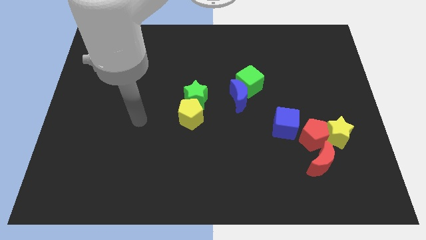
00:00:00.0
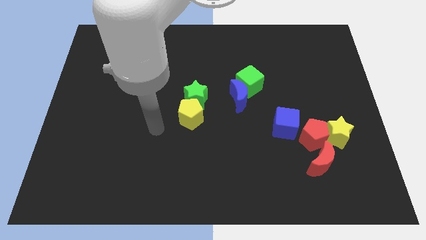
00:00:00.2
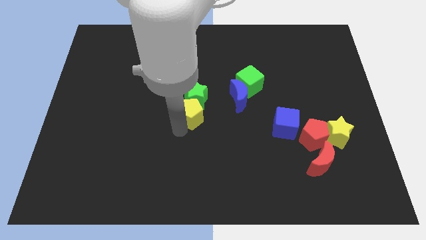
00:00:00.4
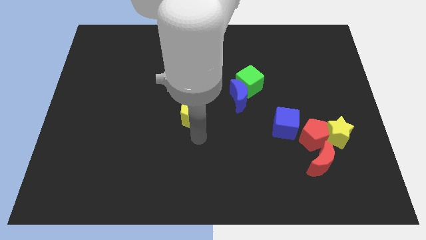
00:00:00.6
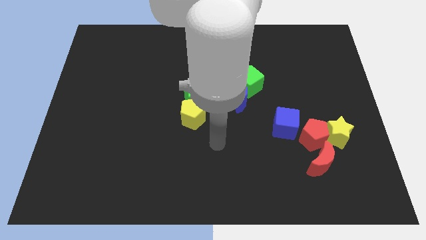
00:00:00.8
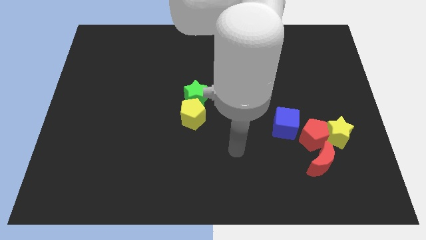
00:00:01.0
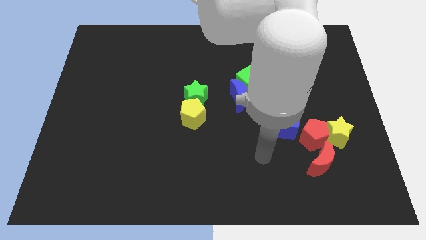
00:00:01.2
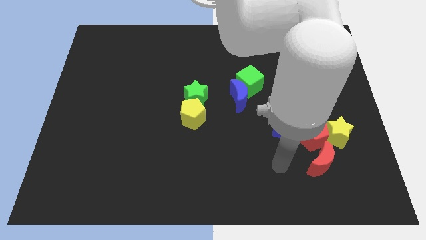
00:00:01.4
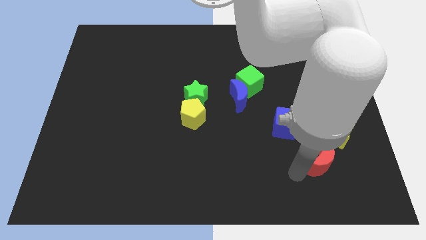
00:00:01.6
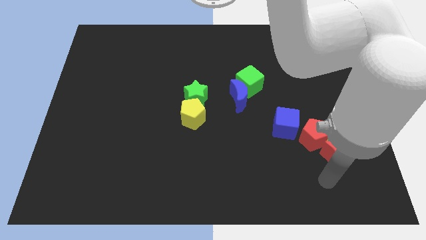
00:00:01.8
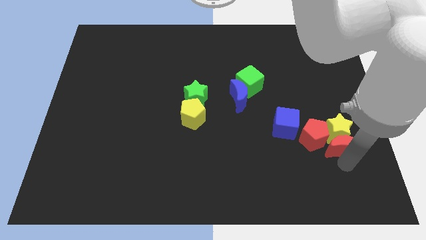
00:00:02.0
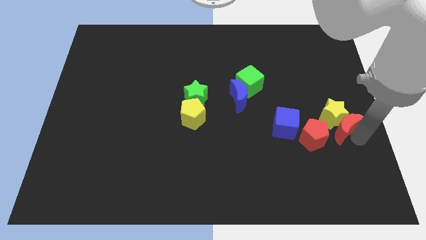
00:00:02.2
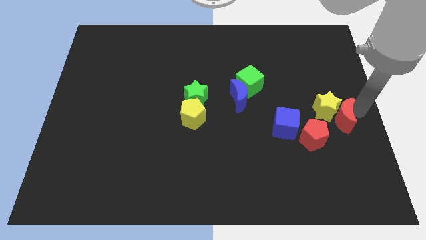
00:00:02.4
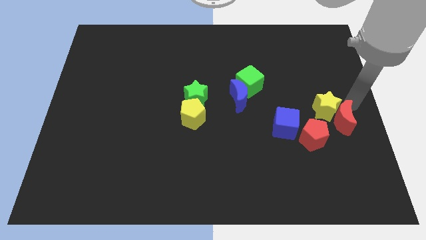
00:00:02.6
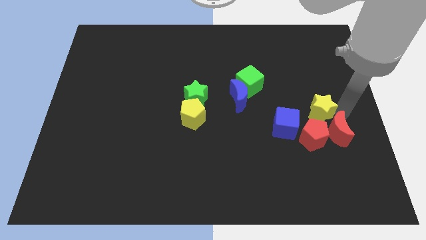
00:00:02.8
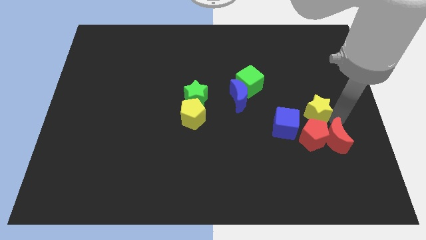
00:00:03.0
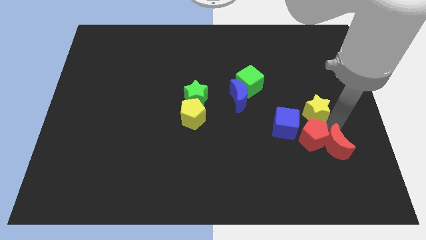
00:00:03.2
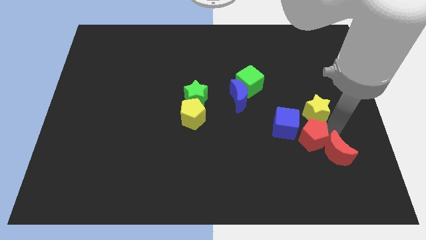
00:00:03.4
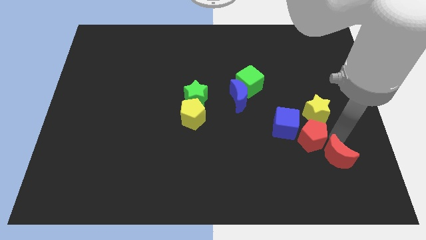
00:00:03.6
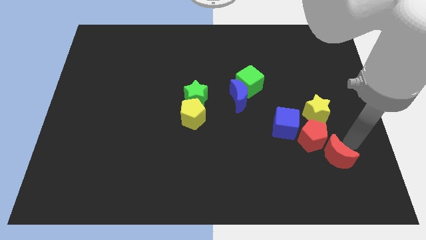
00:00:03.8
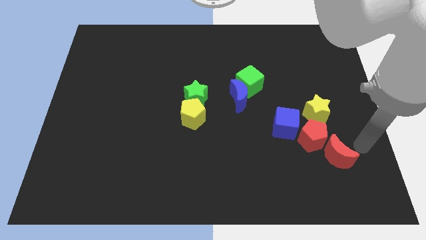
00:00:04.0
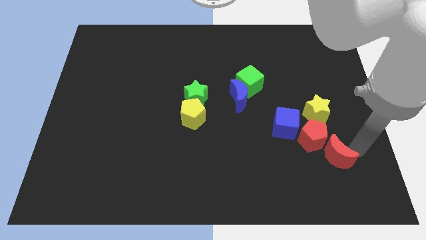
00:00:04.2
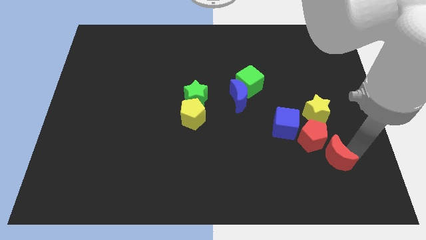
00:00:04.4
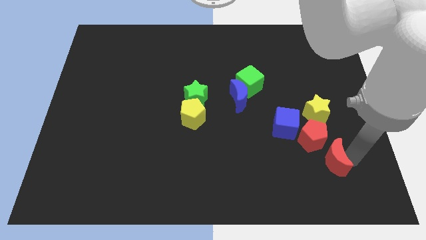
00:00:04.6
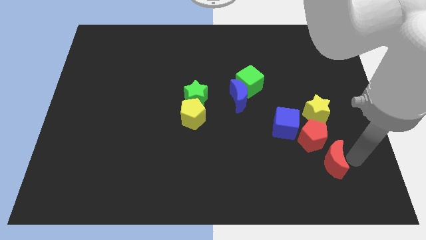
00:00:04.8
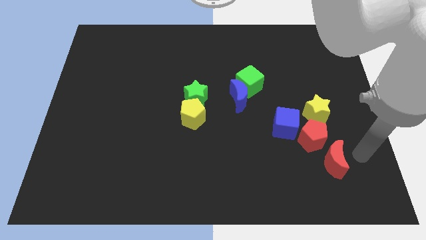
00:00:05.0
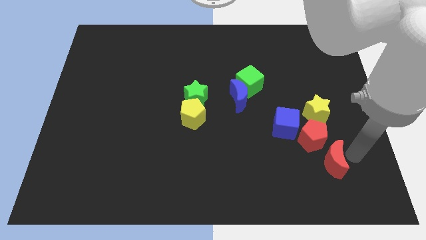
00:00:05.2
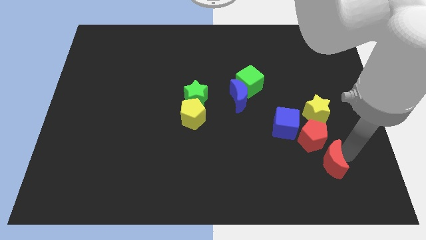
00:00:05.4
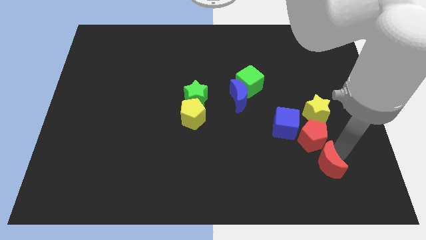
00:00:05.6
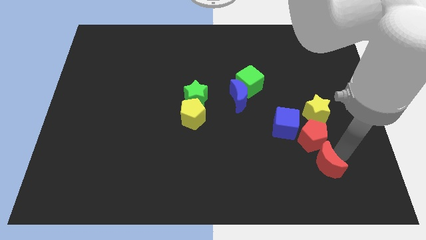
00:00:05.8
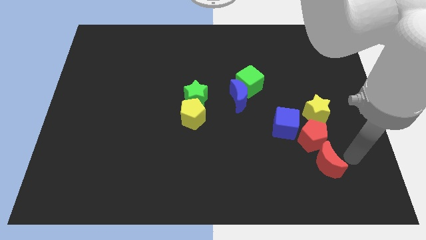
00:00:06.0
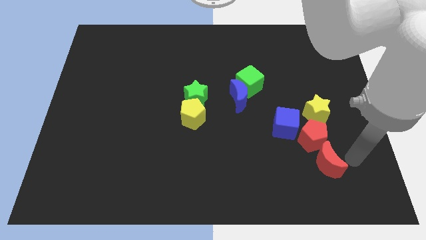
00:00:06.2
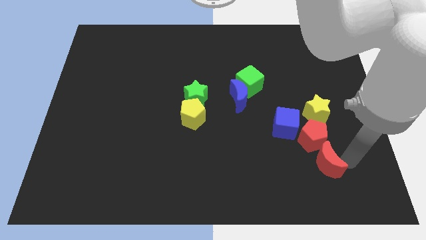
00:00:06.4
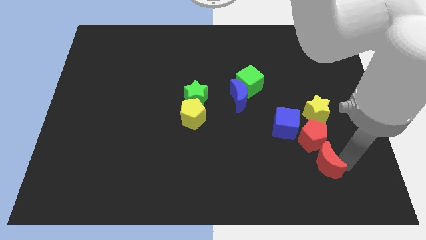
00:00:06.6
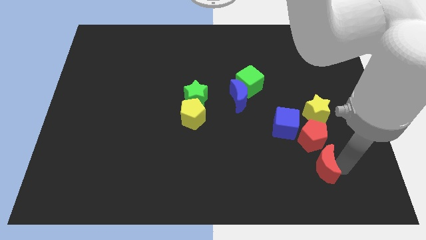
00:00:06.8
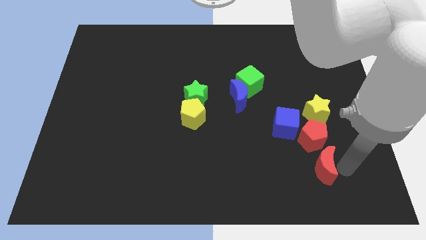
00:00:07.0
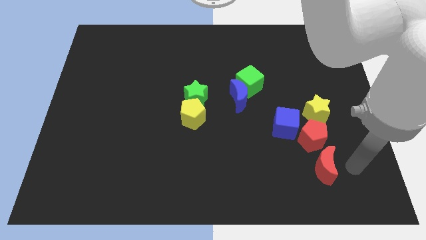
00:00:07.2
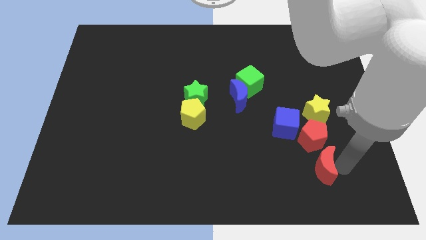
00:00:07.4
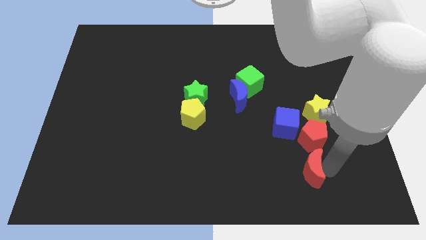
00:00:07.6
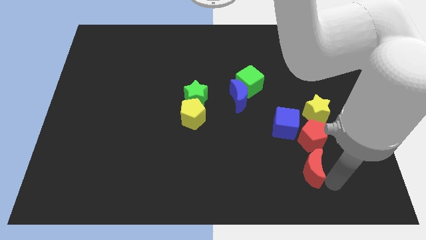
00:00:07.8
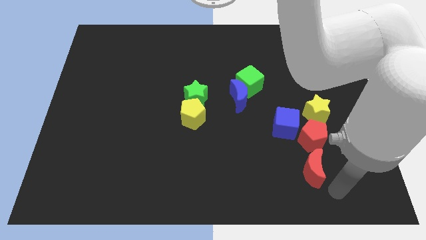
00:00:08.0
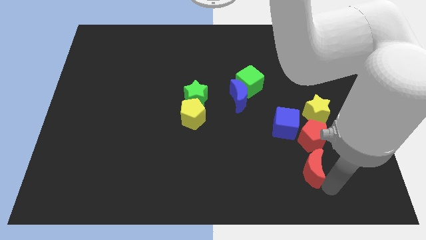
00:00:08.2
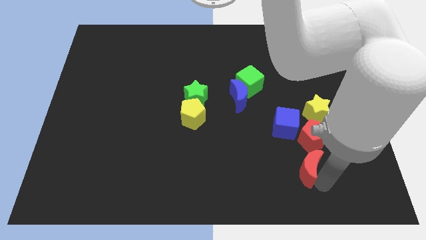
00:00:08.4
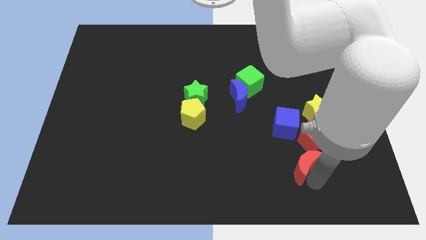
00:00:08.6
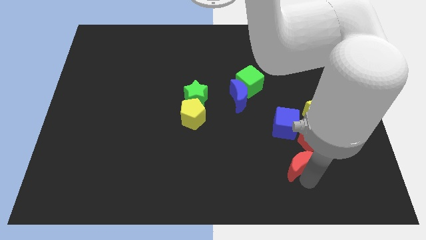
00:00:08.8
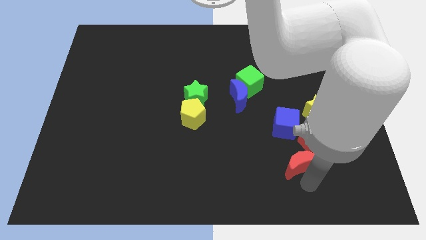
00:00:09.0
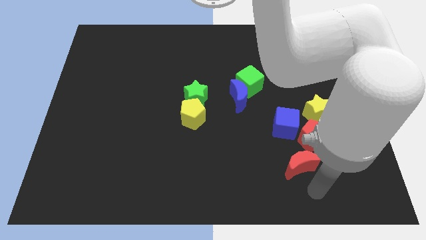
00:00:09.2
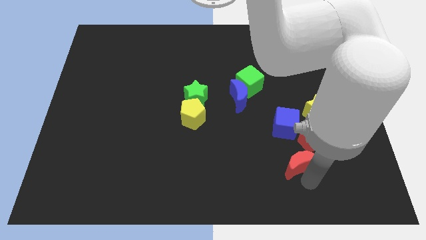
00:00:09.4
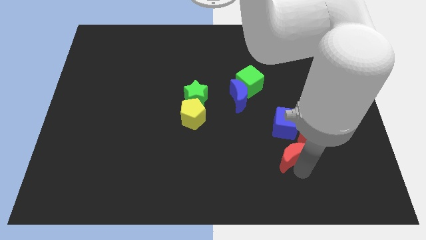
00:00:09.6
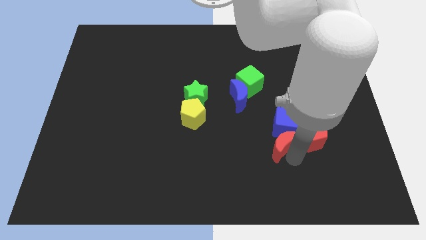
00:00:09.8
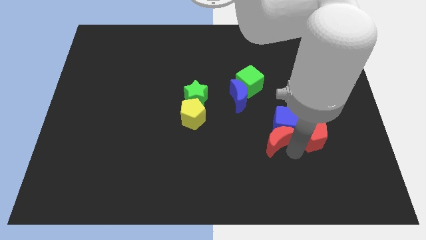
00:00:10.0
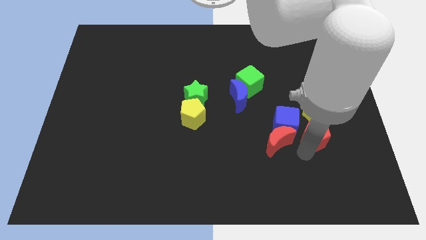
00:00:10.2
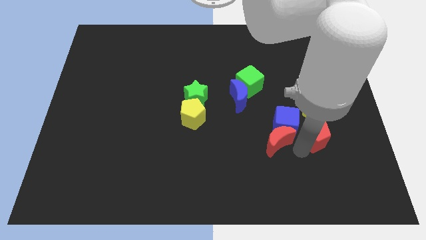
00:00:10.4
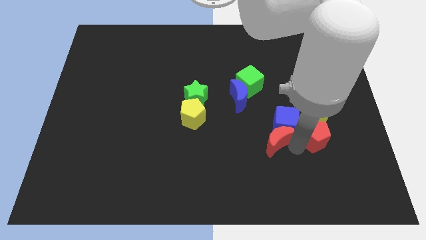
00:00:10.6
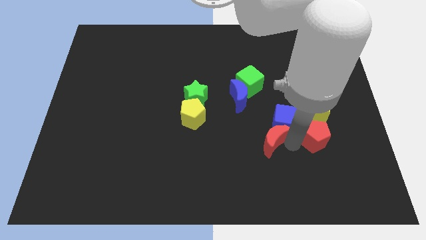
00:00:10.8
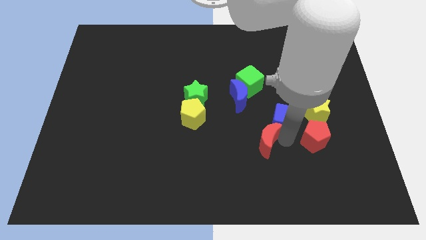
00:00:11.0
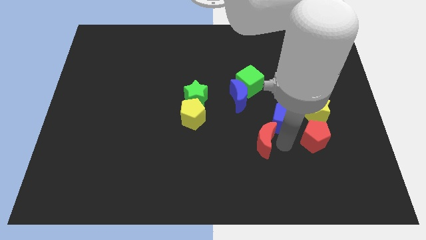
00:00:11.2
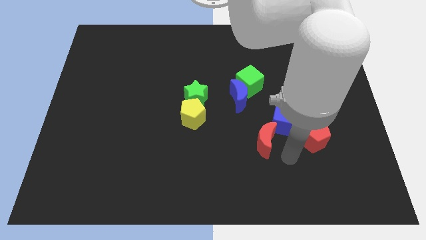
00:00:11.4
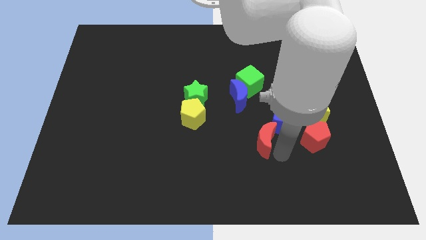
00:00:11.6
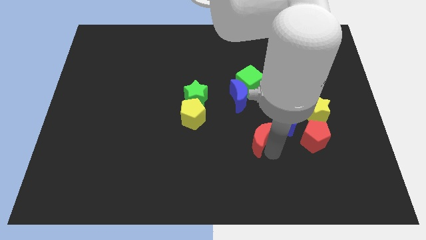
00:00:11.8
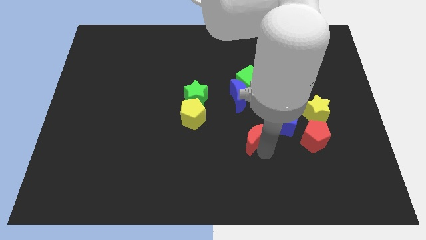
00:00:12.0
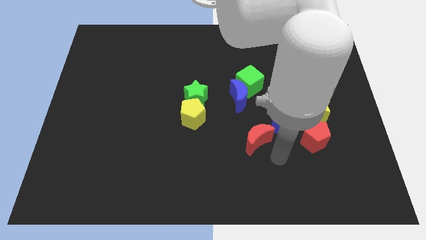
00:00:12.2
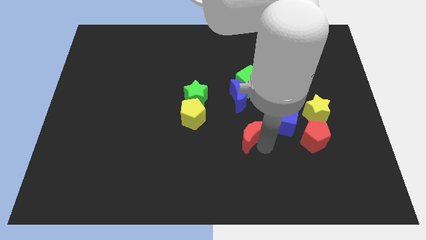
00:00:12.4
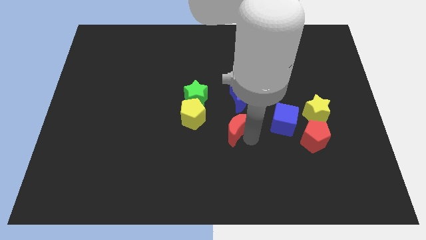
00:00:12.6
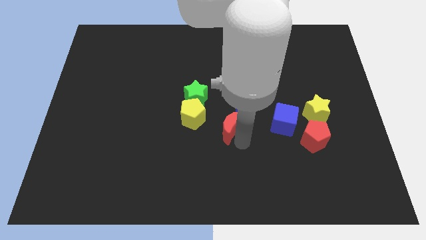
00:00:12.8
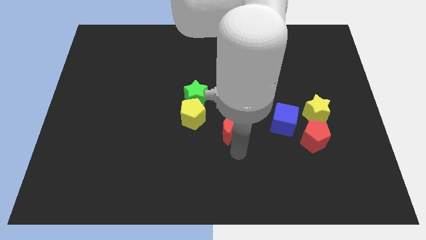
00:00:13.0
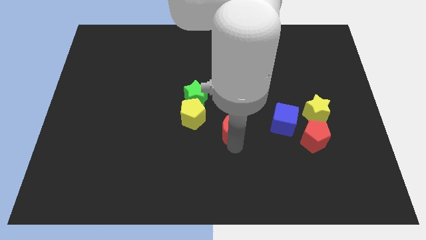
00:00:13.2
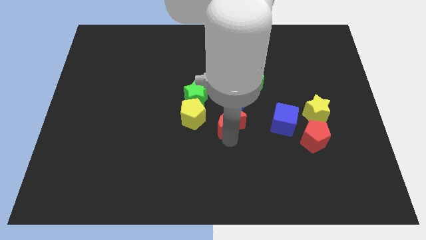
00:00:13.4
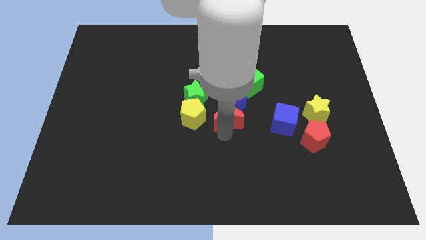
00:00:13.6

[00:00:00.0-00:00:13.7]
push the red moon up and then left

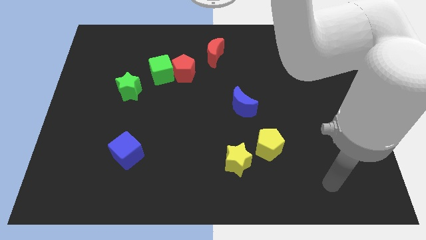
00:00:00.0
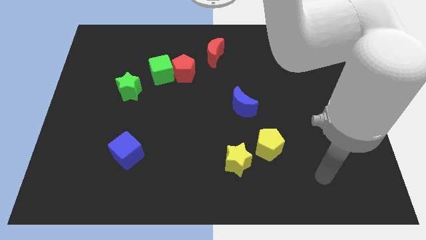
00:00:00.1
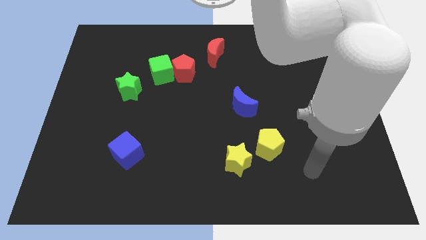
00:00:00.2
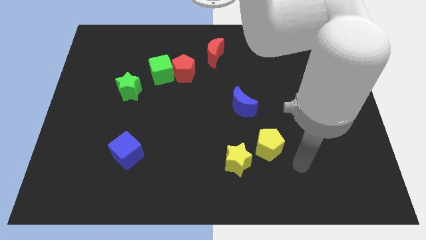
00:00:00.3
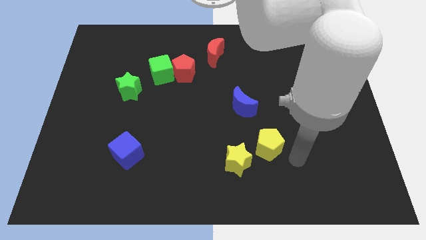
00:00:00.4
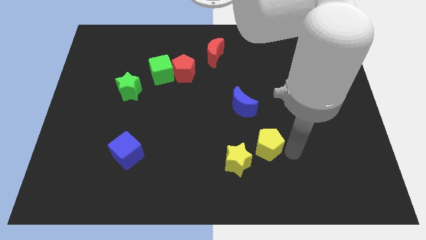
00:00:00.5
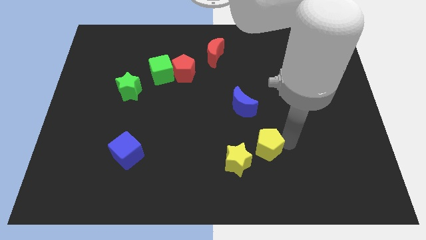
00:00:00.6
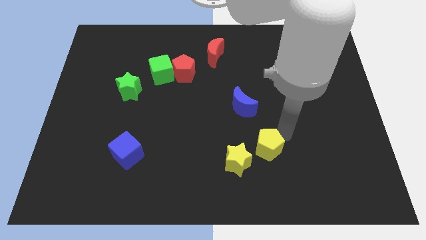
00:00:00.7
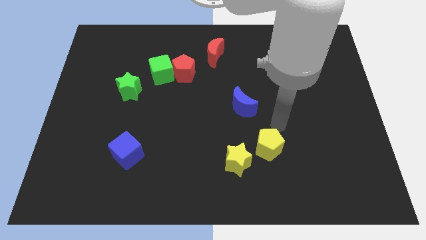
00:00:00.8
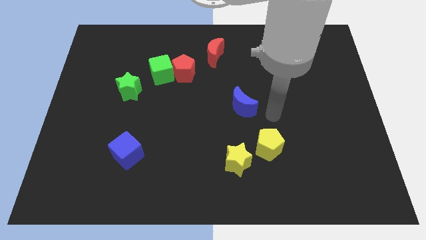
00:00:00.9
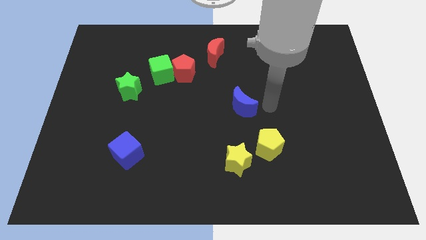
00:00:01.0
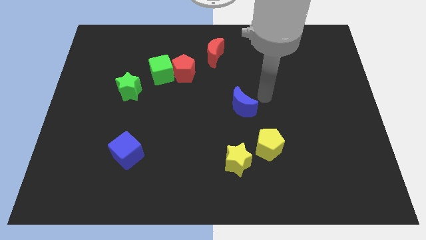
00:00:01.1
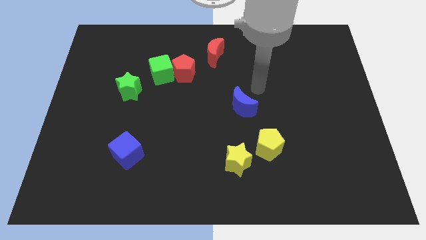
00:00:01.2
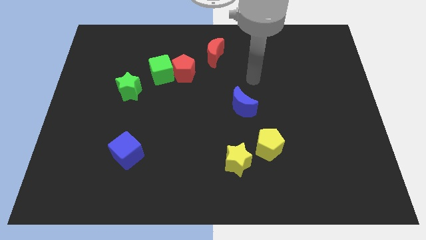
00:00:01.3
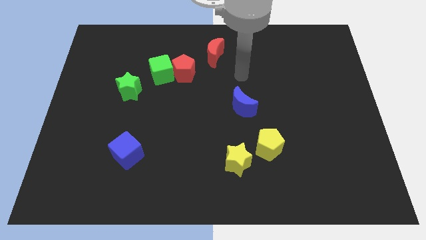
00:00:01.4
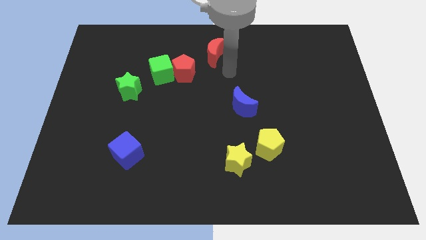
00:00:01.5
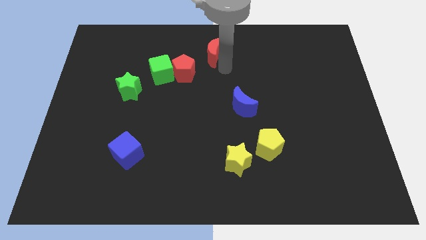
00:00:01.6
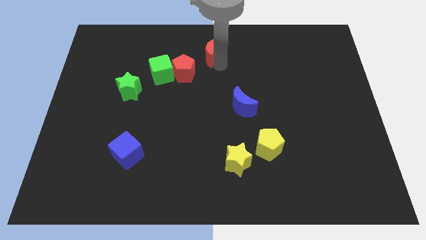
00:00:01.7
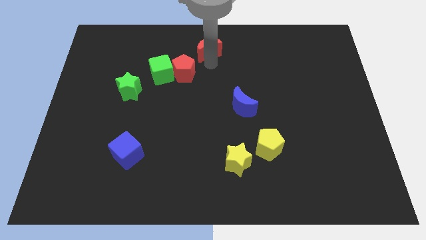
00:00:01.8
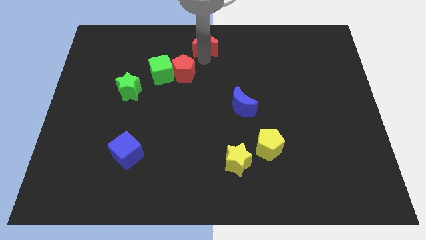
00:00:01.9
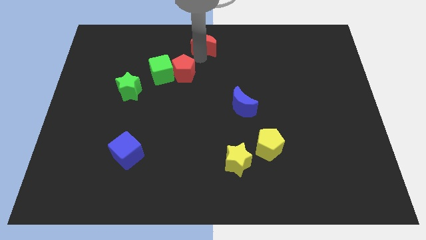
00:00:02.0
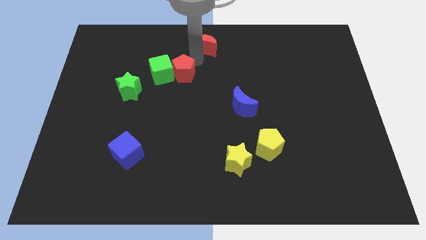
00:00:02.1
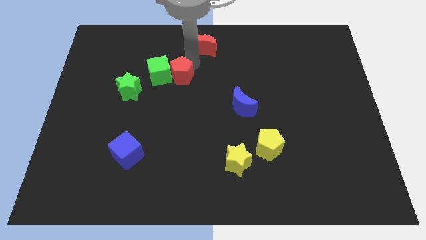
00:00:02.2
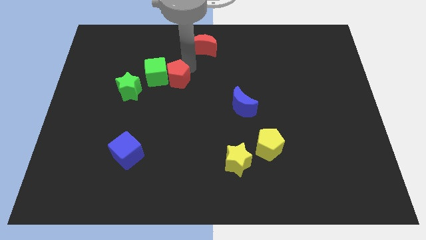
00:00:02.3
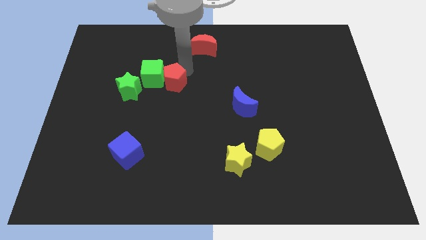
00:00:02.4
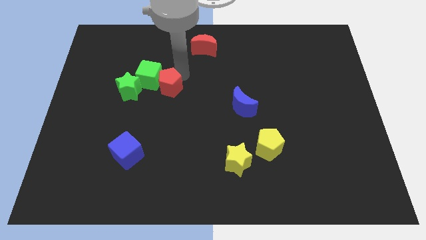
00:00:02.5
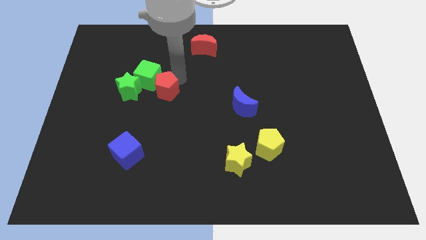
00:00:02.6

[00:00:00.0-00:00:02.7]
slide the red pentagon diagonally down and left somewhat
